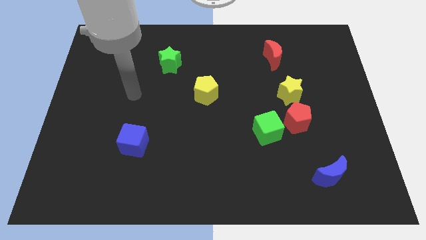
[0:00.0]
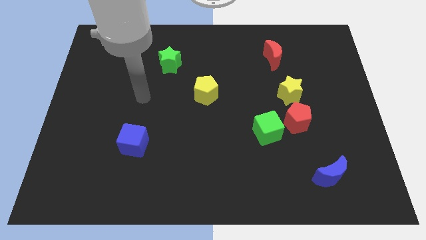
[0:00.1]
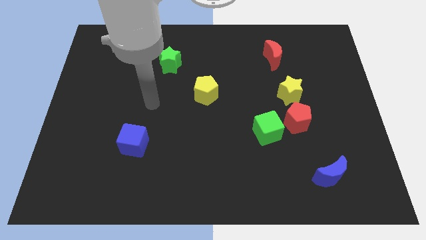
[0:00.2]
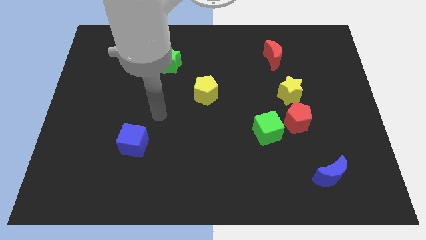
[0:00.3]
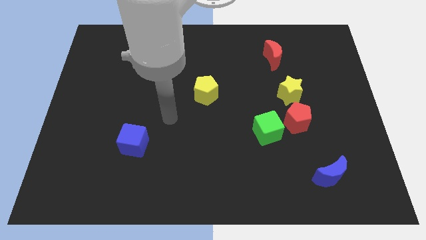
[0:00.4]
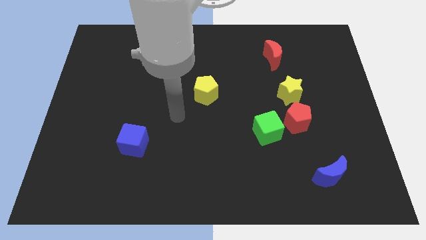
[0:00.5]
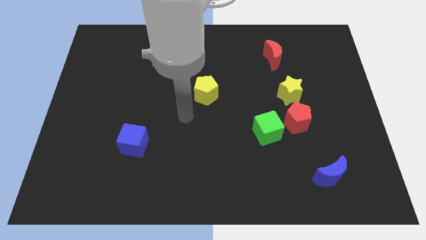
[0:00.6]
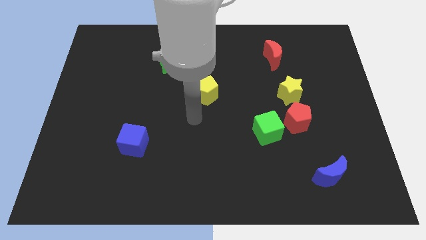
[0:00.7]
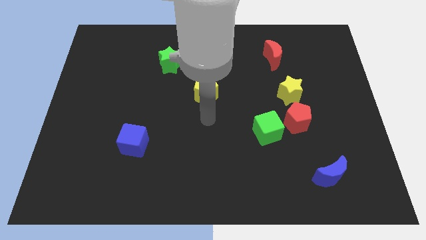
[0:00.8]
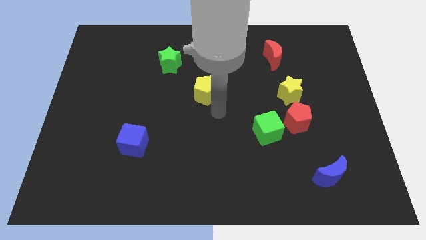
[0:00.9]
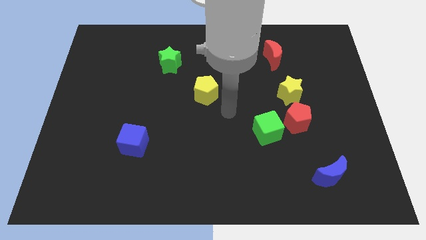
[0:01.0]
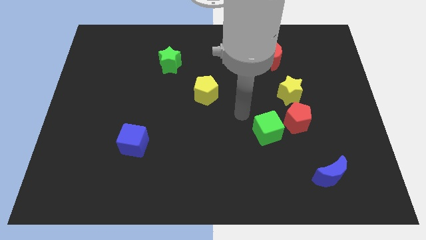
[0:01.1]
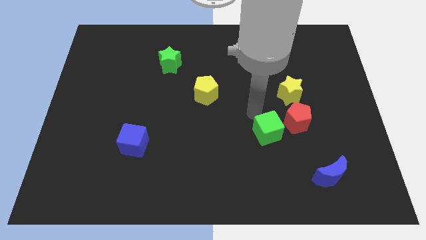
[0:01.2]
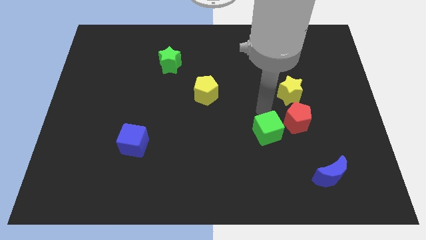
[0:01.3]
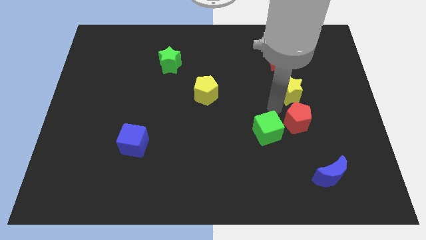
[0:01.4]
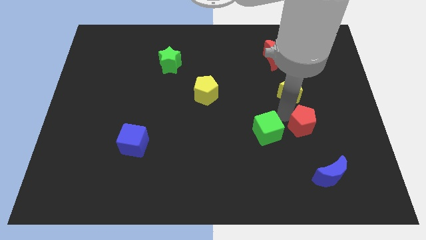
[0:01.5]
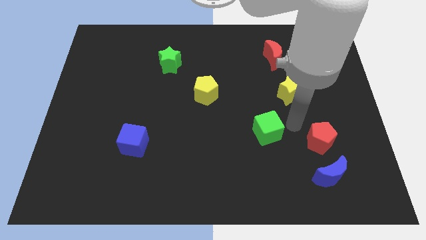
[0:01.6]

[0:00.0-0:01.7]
move the green cube away from the red pentagon

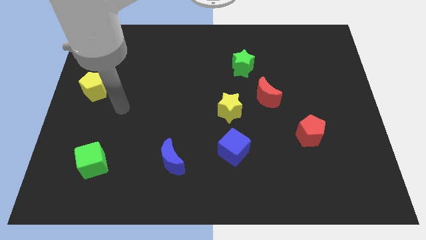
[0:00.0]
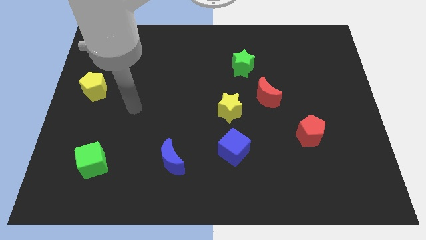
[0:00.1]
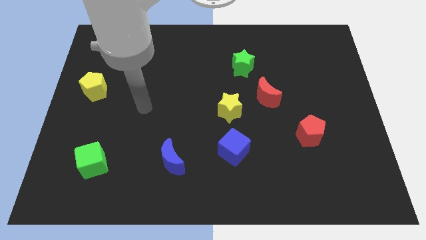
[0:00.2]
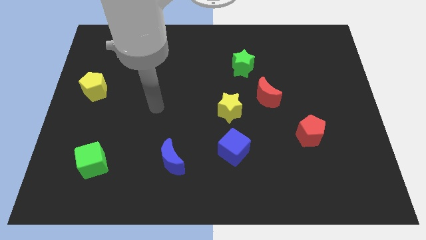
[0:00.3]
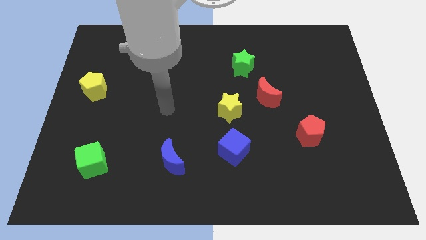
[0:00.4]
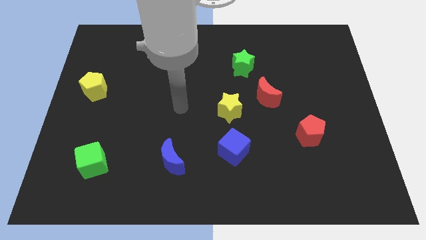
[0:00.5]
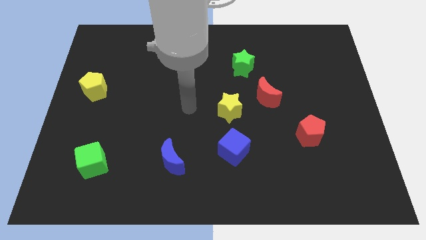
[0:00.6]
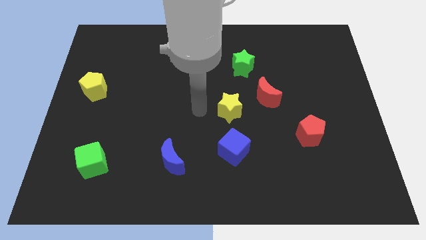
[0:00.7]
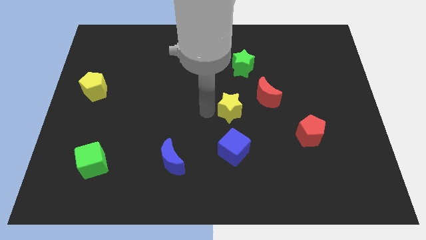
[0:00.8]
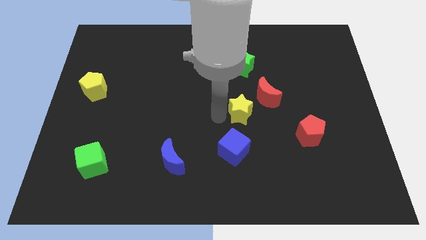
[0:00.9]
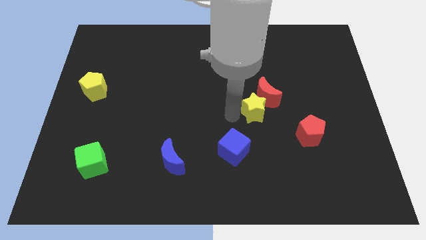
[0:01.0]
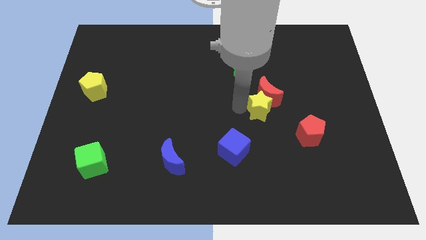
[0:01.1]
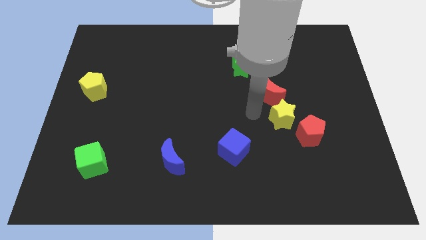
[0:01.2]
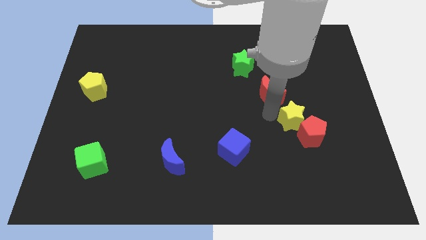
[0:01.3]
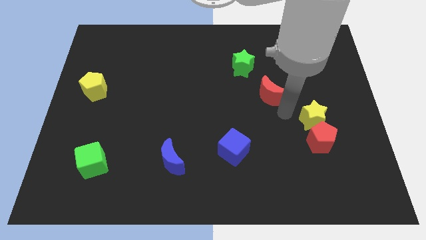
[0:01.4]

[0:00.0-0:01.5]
pull the red moon apart from the yellow star

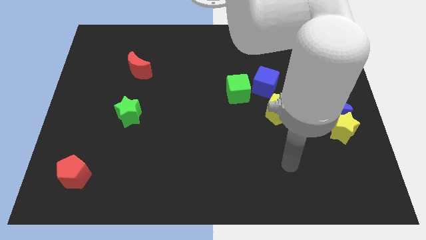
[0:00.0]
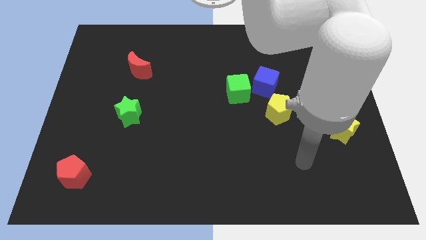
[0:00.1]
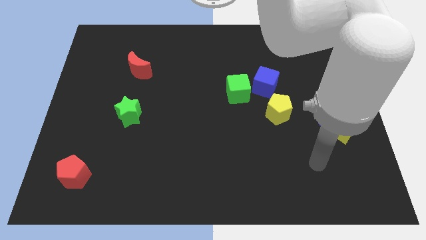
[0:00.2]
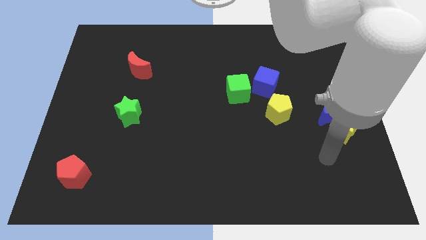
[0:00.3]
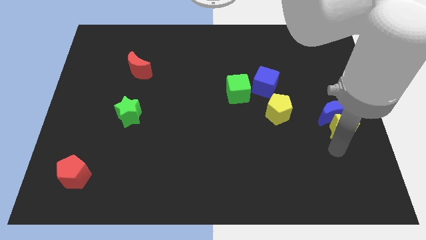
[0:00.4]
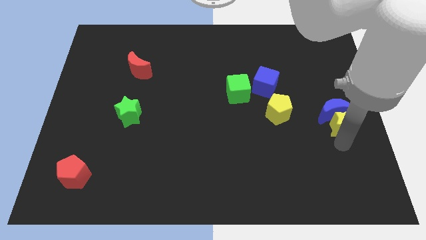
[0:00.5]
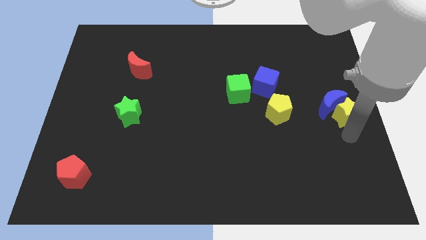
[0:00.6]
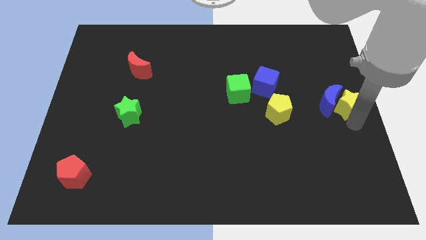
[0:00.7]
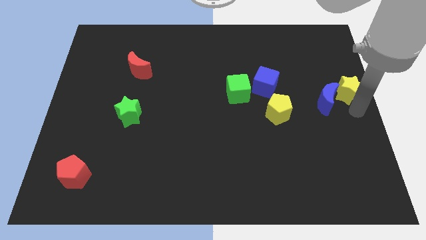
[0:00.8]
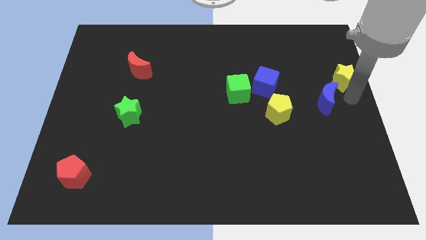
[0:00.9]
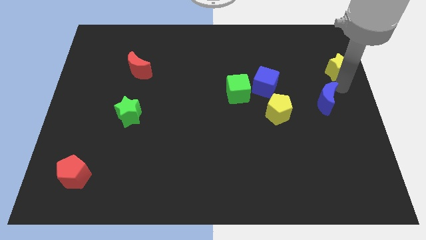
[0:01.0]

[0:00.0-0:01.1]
separate the blue moon from the yellow star

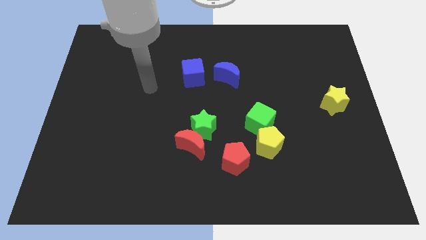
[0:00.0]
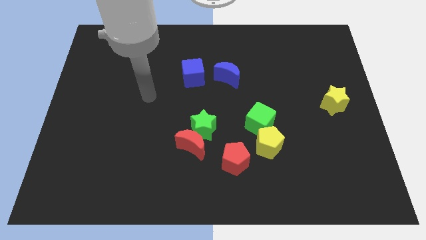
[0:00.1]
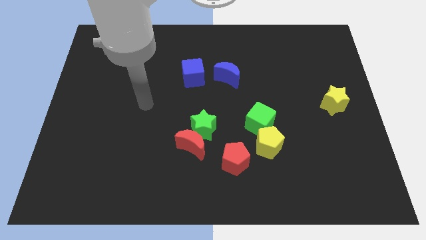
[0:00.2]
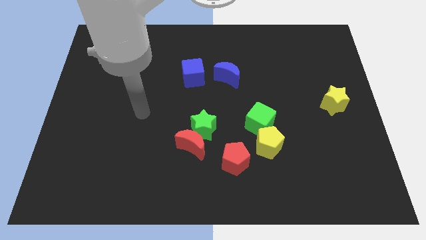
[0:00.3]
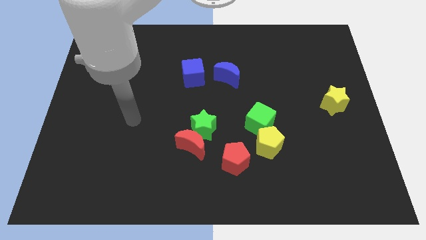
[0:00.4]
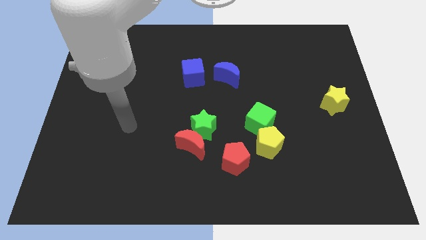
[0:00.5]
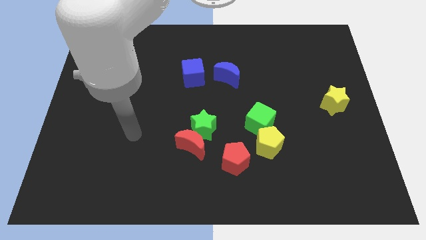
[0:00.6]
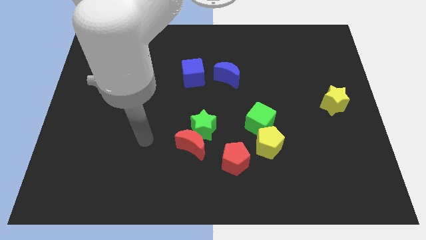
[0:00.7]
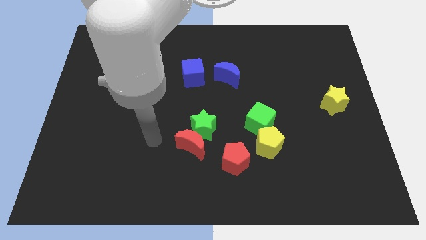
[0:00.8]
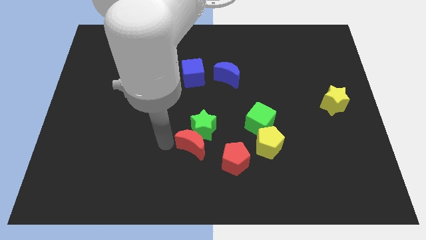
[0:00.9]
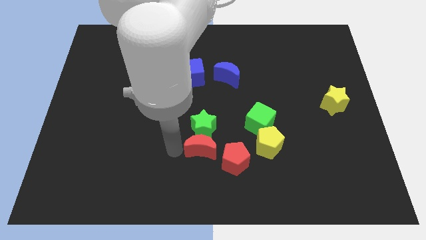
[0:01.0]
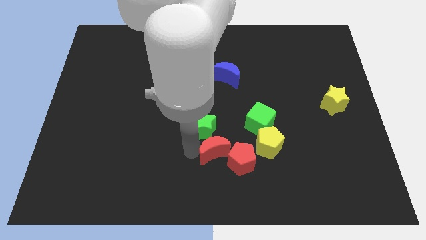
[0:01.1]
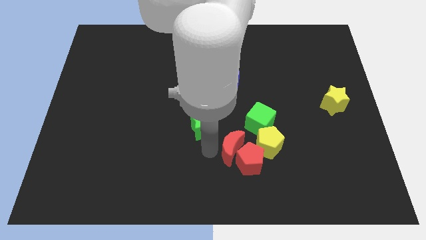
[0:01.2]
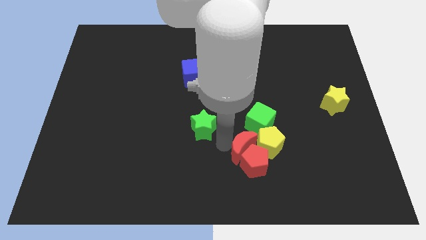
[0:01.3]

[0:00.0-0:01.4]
move the green star away from the red moon

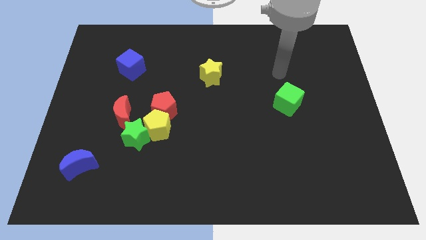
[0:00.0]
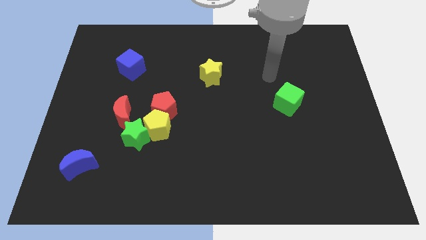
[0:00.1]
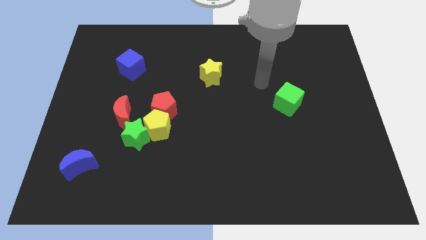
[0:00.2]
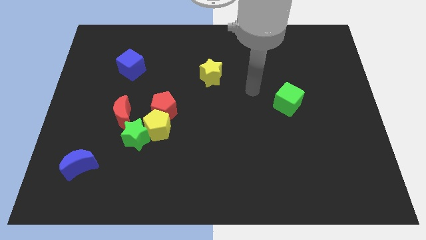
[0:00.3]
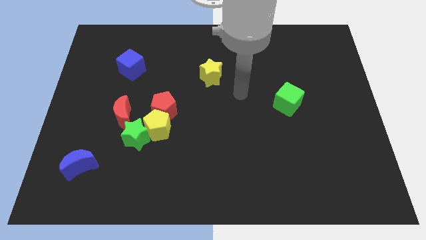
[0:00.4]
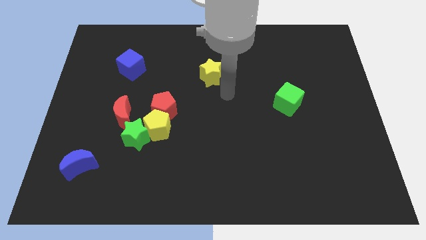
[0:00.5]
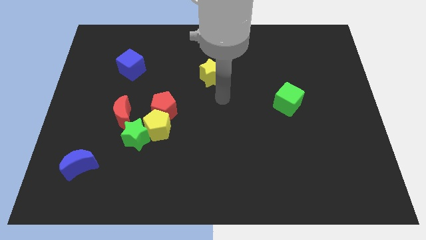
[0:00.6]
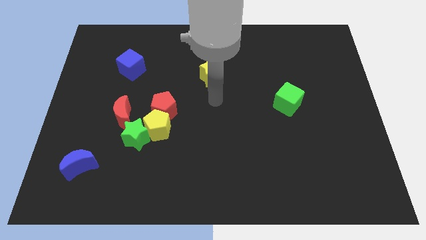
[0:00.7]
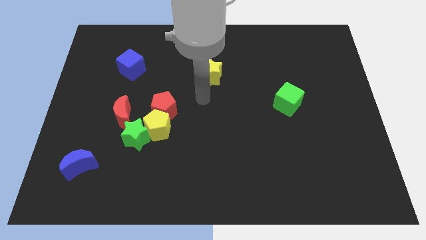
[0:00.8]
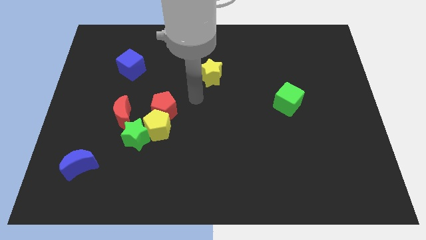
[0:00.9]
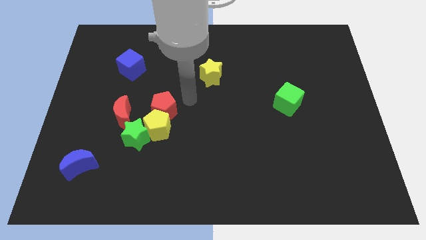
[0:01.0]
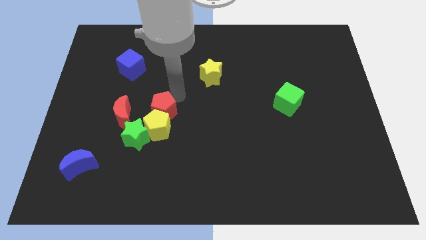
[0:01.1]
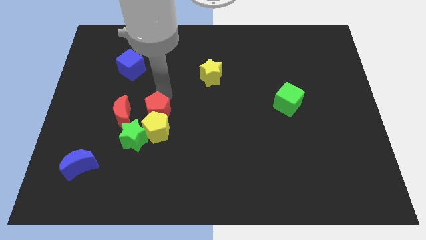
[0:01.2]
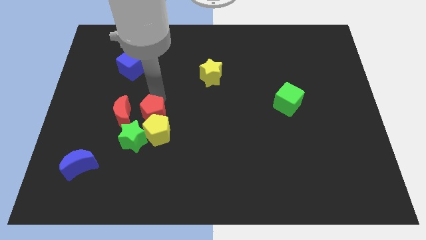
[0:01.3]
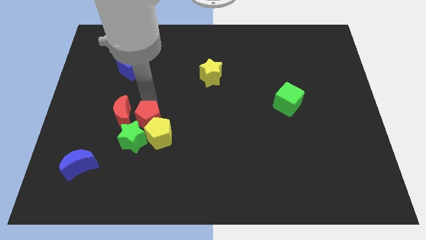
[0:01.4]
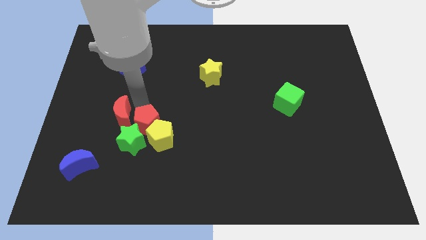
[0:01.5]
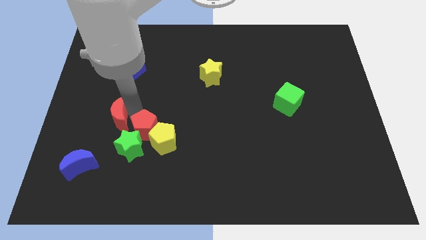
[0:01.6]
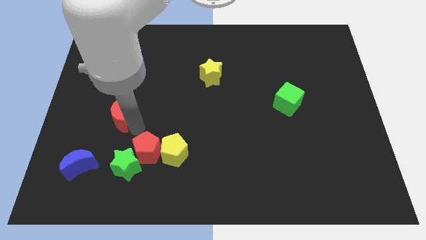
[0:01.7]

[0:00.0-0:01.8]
move the yellow pentagon away from the group of blocks

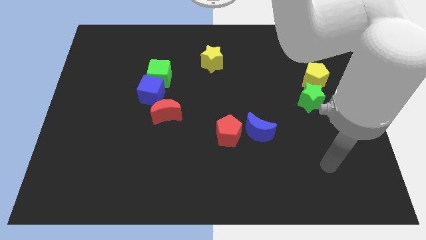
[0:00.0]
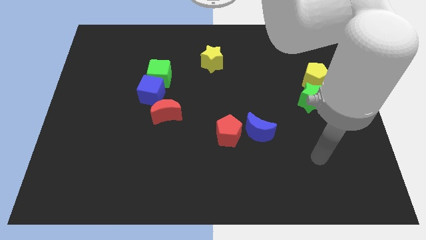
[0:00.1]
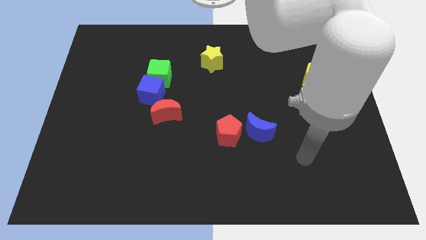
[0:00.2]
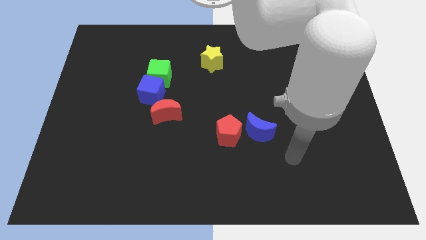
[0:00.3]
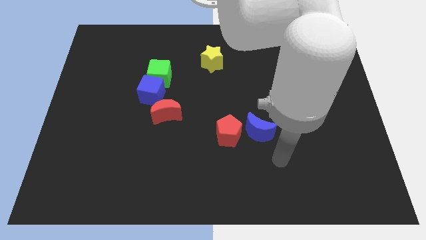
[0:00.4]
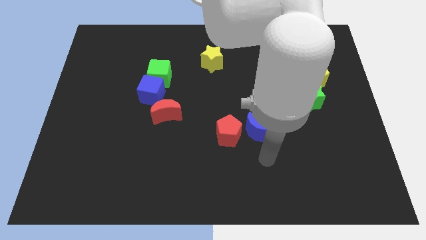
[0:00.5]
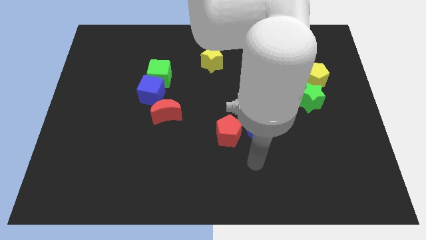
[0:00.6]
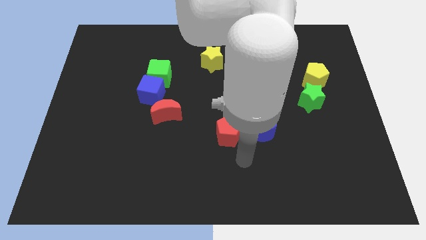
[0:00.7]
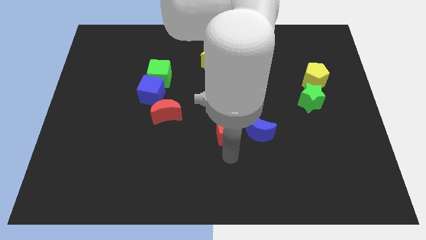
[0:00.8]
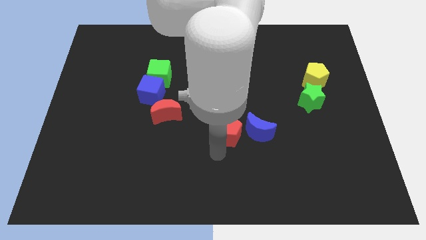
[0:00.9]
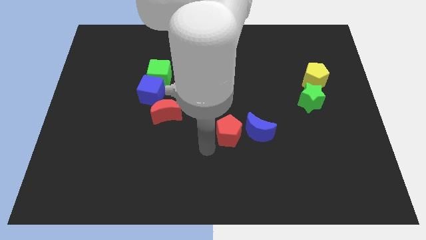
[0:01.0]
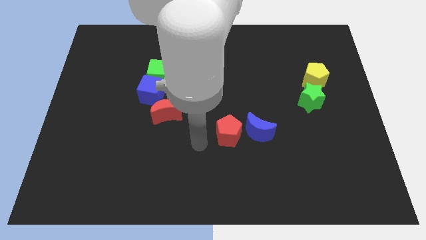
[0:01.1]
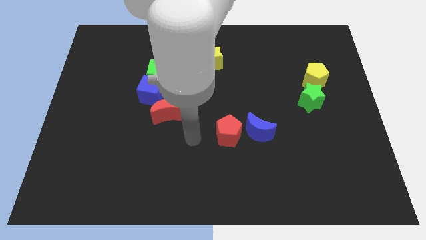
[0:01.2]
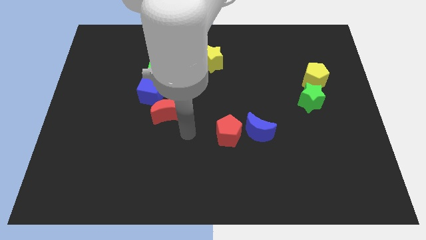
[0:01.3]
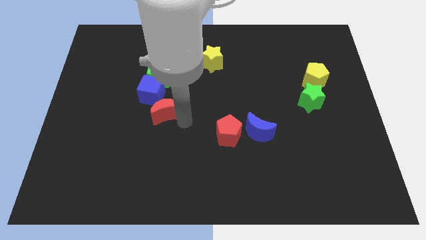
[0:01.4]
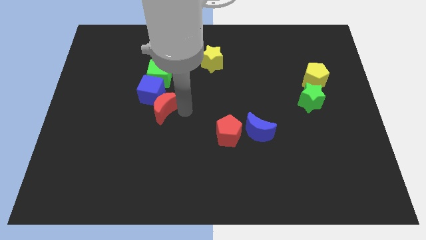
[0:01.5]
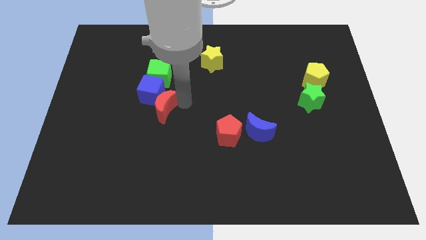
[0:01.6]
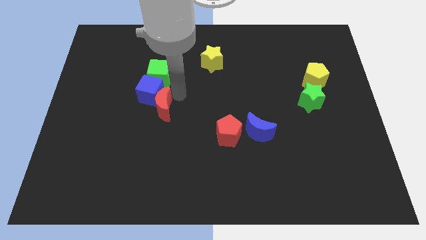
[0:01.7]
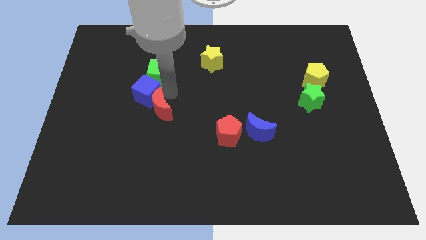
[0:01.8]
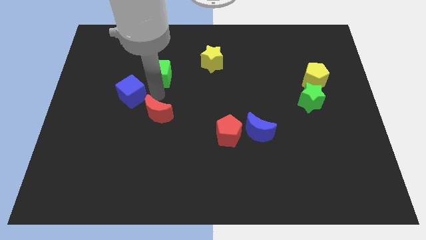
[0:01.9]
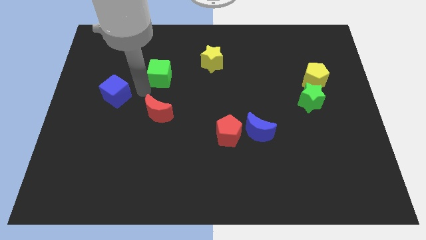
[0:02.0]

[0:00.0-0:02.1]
move the green cube away from the blue cube
